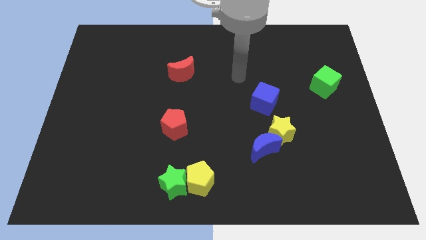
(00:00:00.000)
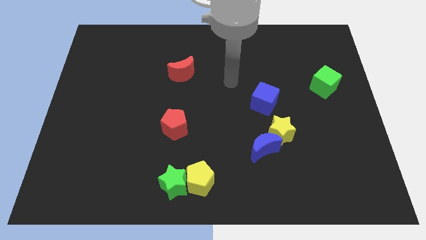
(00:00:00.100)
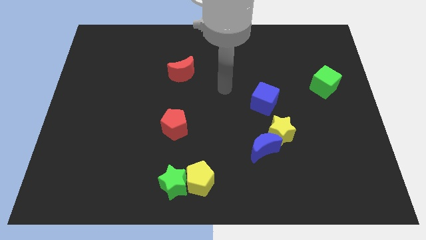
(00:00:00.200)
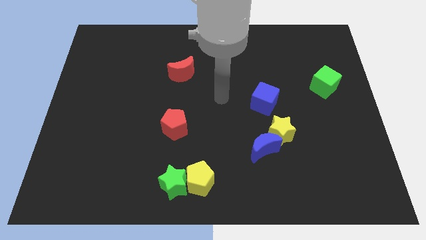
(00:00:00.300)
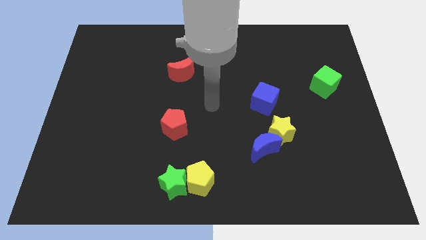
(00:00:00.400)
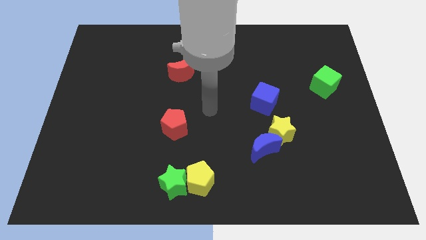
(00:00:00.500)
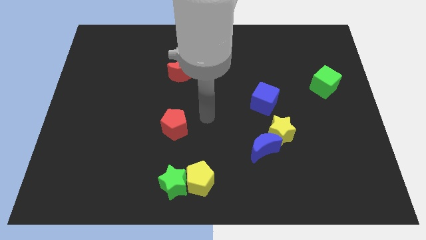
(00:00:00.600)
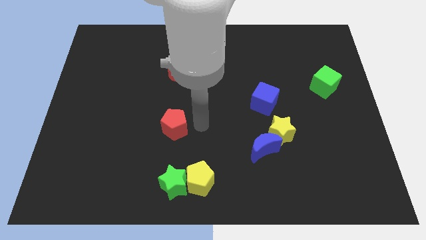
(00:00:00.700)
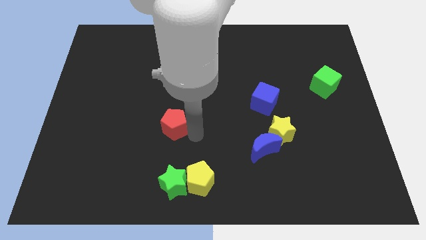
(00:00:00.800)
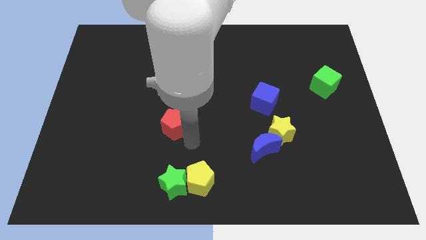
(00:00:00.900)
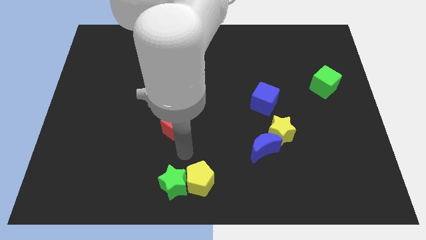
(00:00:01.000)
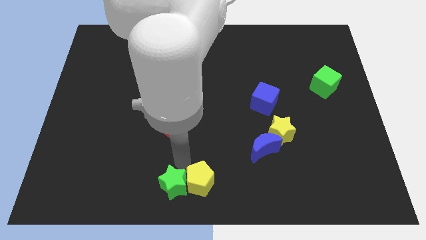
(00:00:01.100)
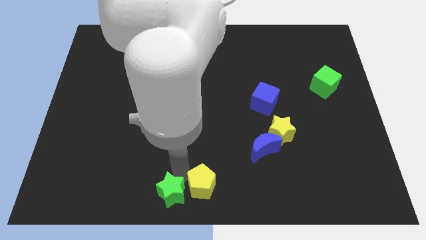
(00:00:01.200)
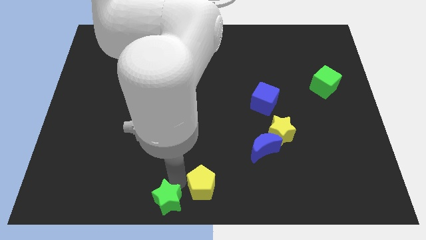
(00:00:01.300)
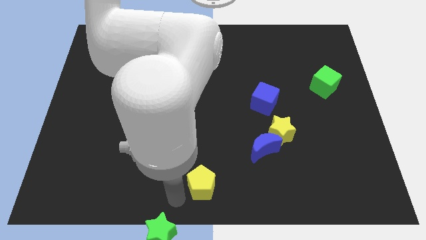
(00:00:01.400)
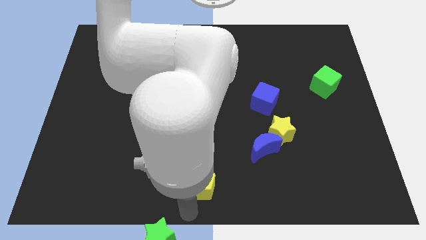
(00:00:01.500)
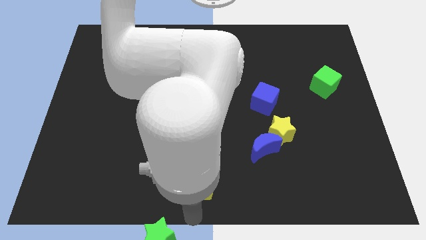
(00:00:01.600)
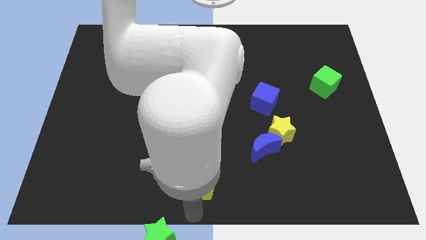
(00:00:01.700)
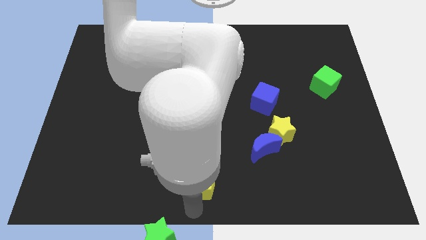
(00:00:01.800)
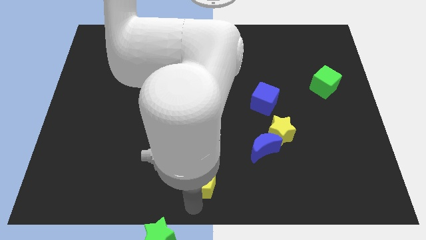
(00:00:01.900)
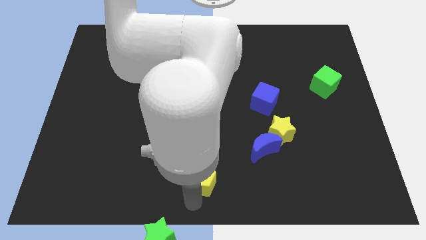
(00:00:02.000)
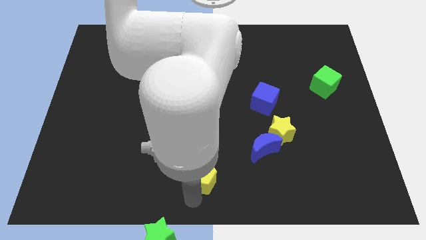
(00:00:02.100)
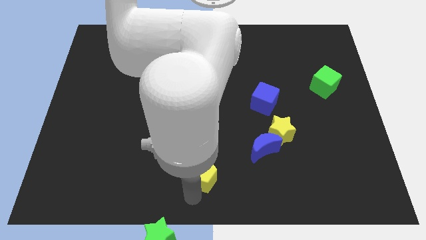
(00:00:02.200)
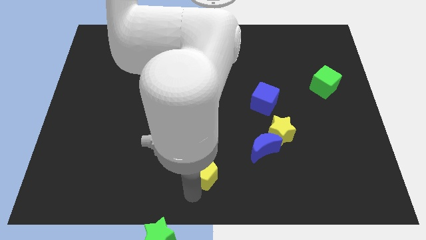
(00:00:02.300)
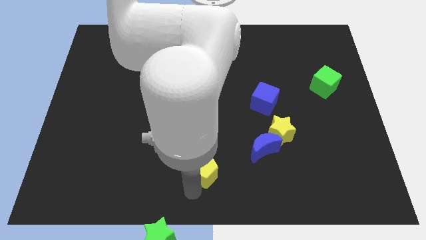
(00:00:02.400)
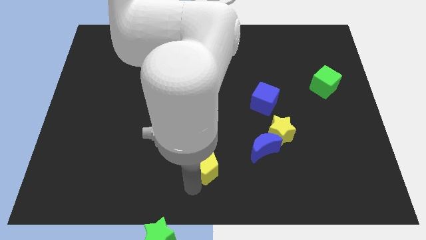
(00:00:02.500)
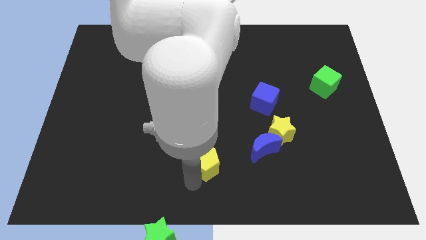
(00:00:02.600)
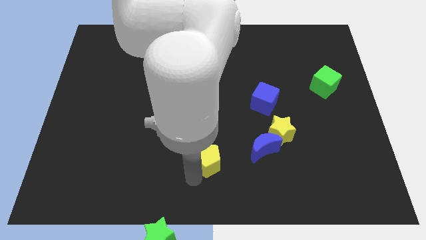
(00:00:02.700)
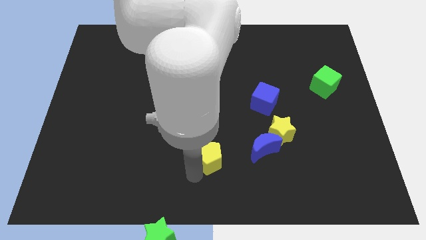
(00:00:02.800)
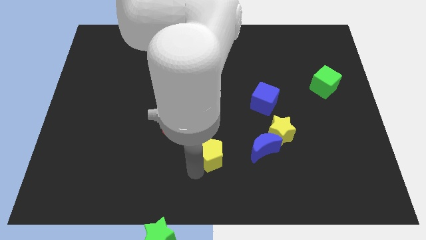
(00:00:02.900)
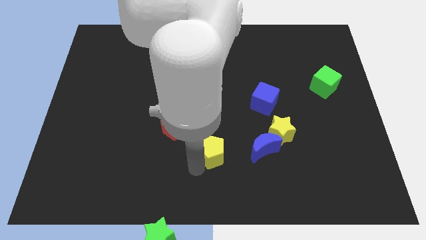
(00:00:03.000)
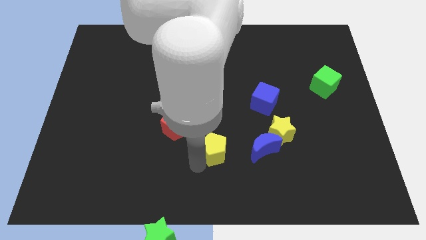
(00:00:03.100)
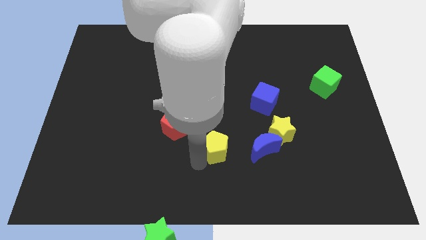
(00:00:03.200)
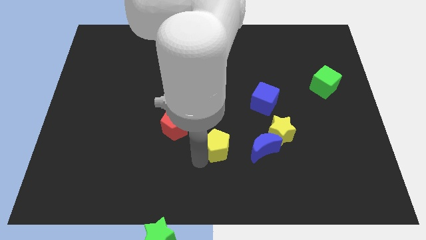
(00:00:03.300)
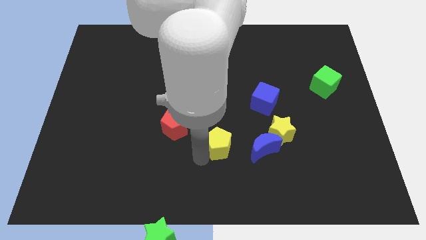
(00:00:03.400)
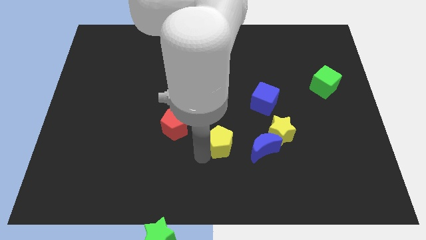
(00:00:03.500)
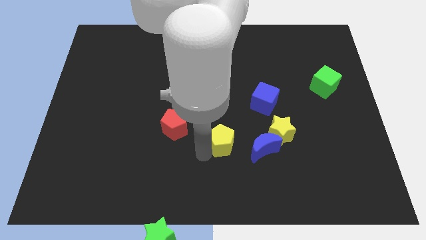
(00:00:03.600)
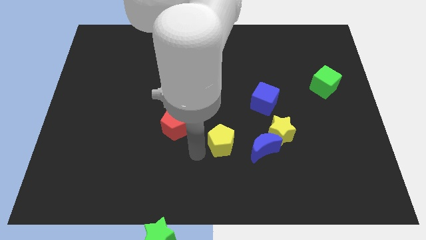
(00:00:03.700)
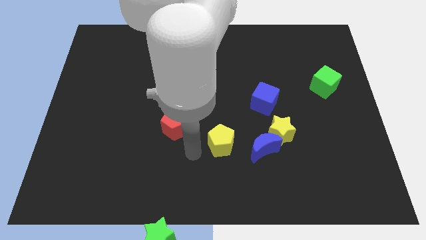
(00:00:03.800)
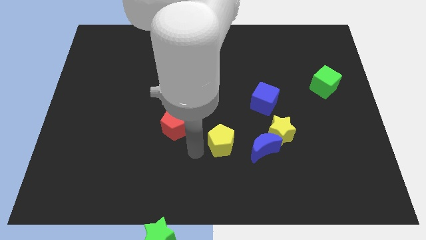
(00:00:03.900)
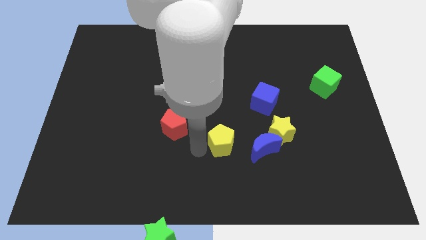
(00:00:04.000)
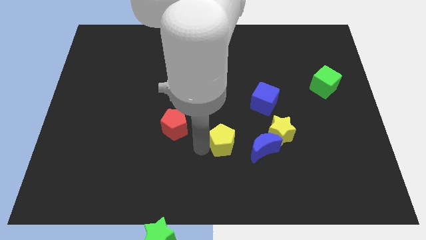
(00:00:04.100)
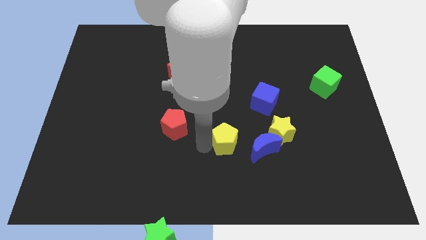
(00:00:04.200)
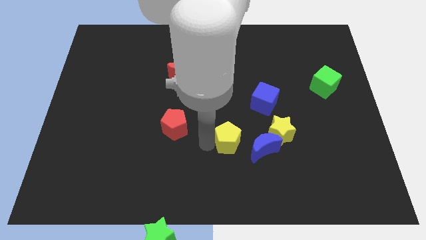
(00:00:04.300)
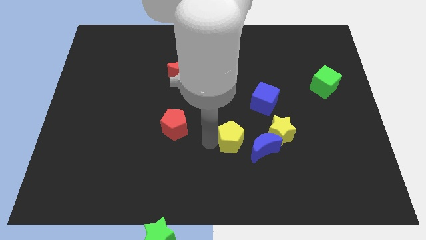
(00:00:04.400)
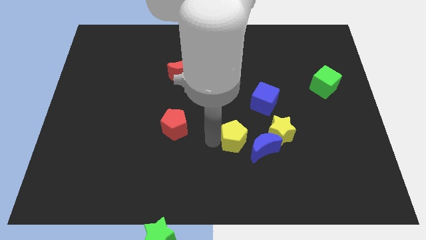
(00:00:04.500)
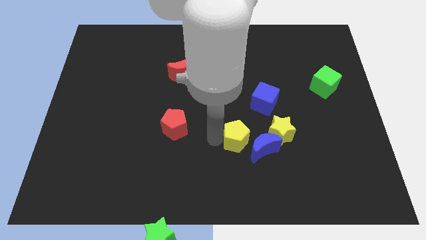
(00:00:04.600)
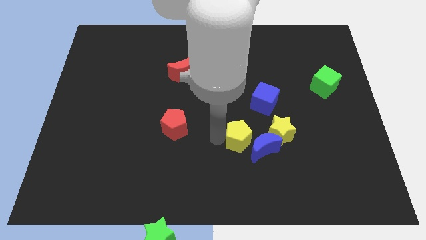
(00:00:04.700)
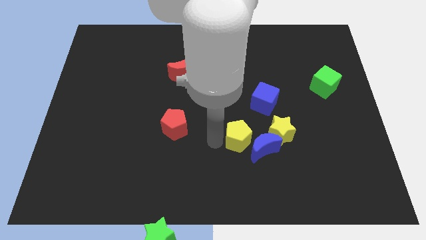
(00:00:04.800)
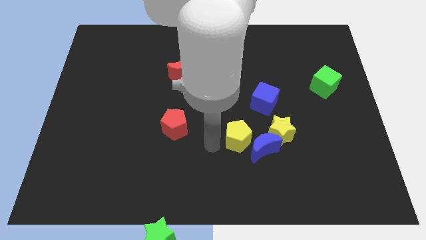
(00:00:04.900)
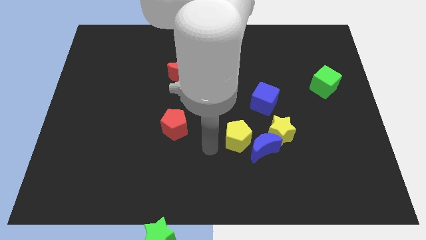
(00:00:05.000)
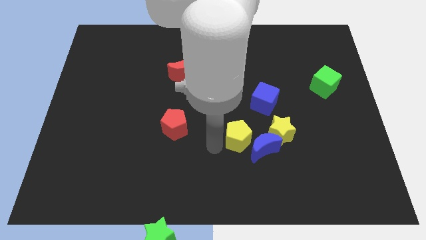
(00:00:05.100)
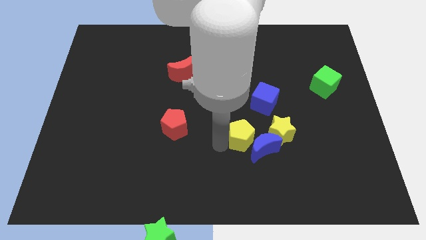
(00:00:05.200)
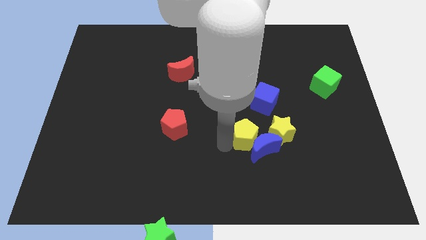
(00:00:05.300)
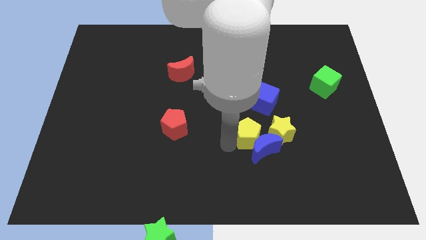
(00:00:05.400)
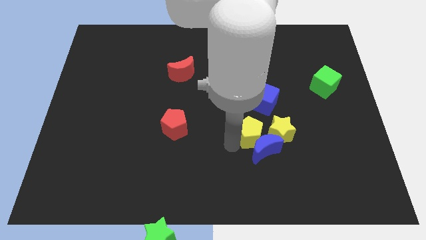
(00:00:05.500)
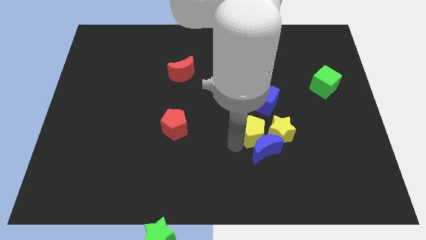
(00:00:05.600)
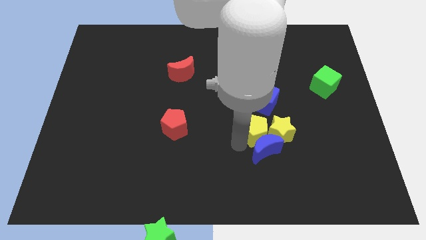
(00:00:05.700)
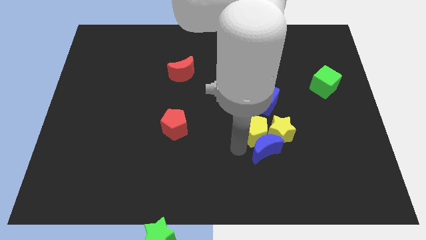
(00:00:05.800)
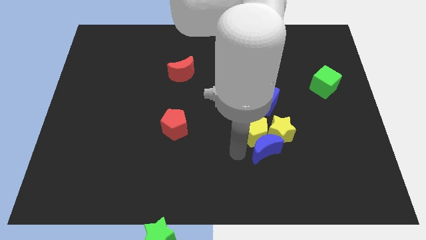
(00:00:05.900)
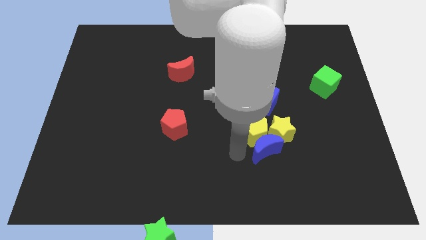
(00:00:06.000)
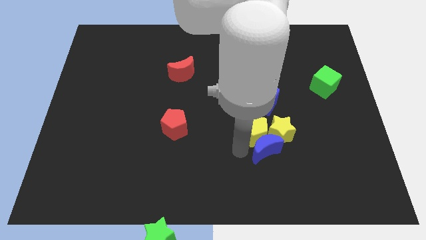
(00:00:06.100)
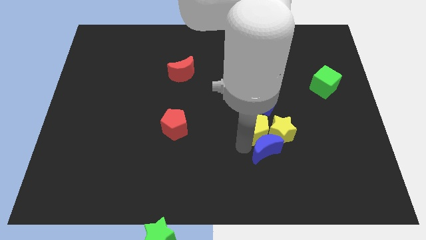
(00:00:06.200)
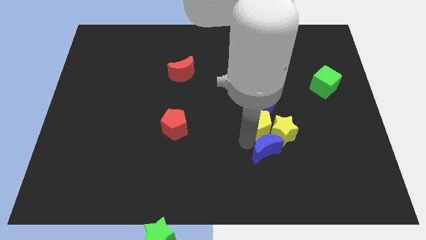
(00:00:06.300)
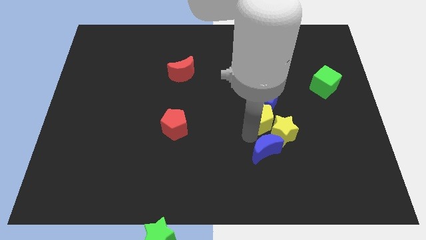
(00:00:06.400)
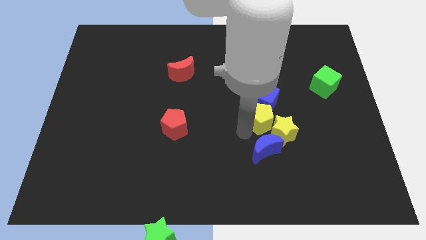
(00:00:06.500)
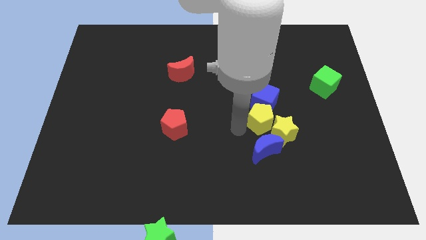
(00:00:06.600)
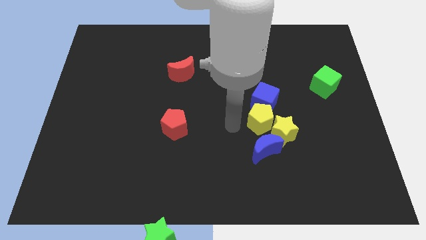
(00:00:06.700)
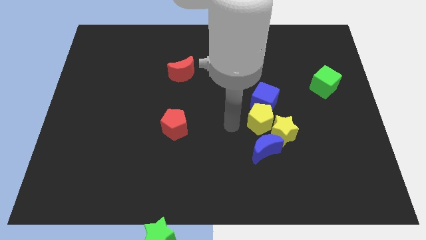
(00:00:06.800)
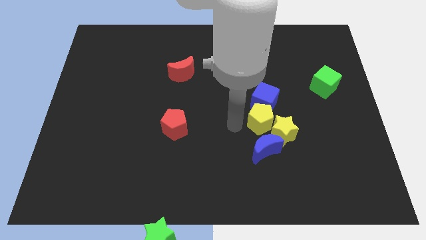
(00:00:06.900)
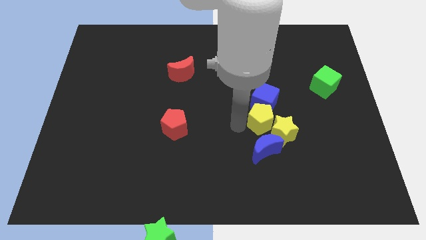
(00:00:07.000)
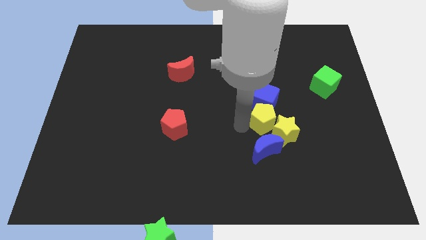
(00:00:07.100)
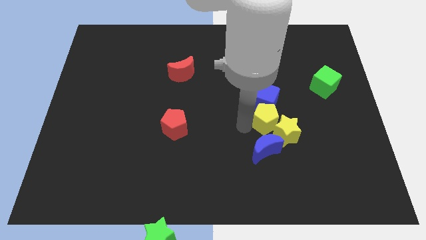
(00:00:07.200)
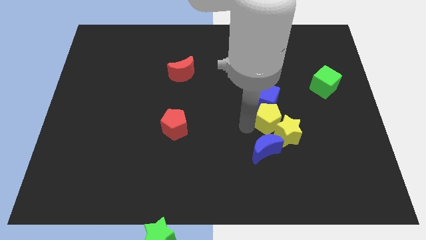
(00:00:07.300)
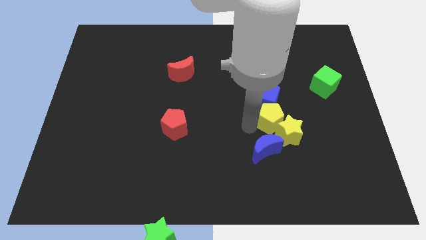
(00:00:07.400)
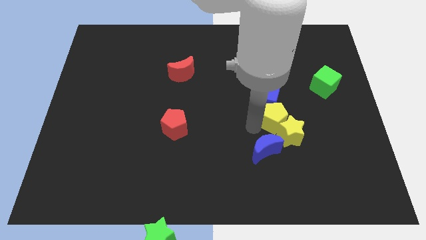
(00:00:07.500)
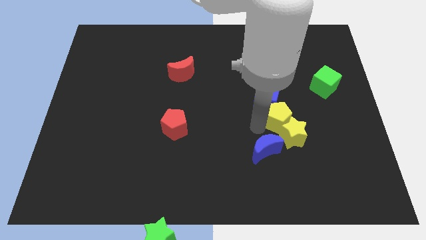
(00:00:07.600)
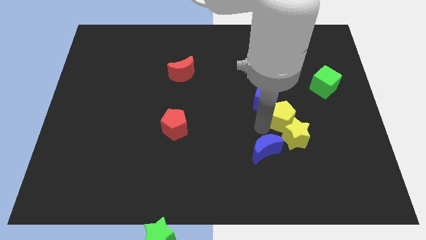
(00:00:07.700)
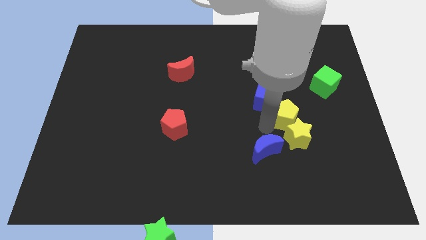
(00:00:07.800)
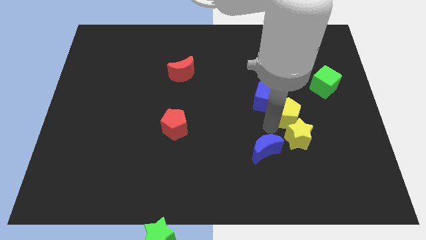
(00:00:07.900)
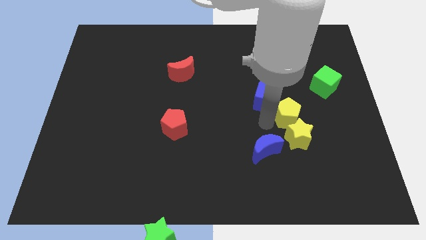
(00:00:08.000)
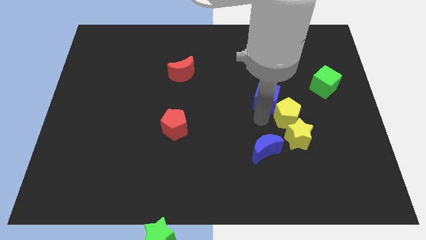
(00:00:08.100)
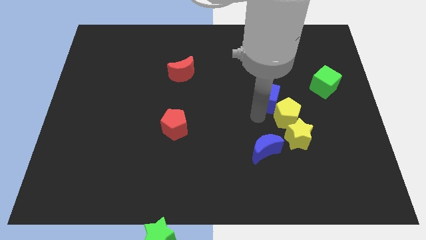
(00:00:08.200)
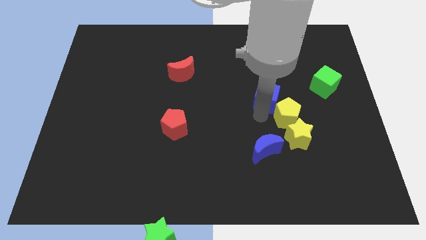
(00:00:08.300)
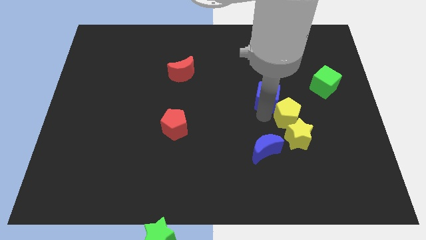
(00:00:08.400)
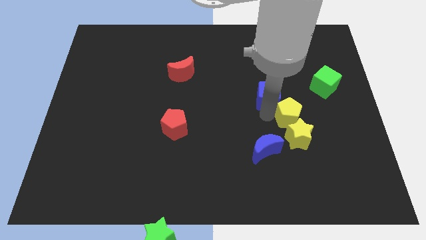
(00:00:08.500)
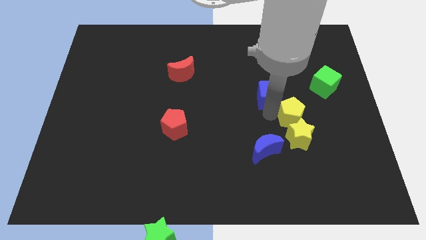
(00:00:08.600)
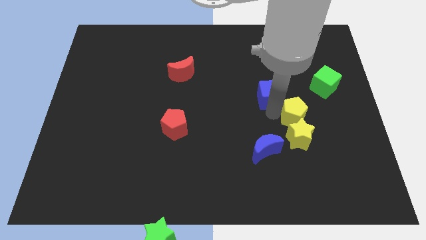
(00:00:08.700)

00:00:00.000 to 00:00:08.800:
move the yellow pentagon to the top right side of the yellow star
